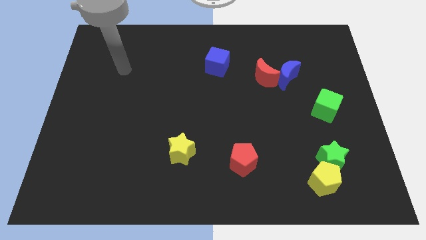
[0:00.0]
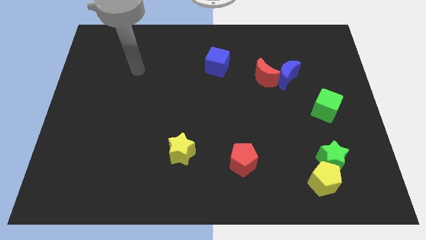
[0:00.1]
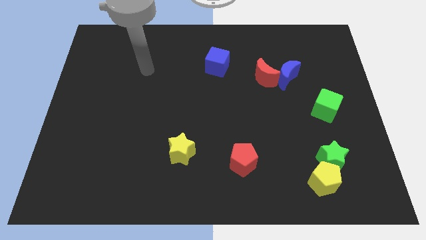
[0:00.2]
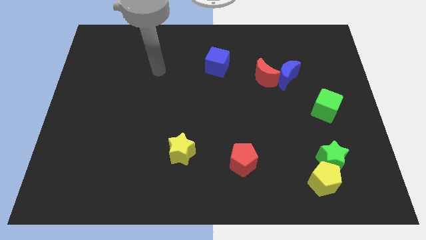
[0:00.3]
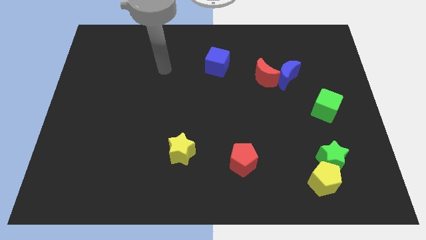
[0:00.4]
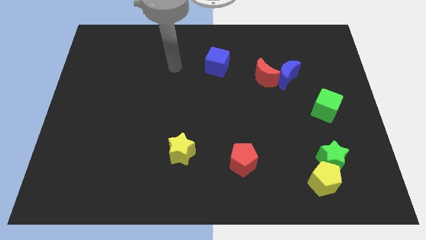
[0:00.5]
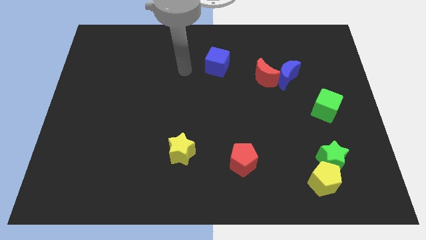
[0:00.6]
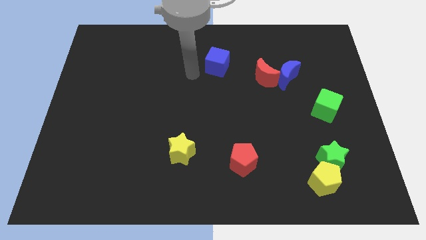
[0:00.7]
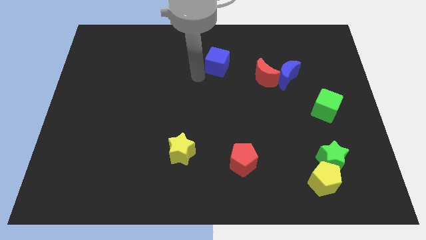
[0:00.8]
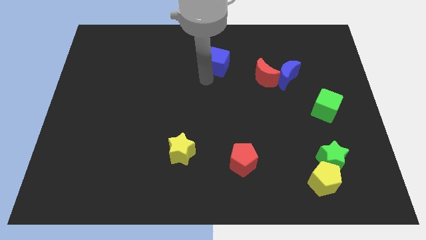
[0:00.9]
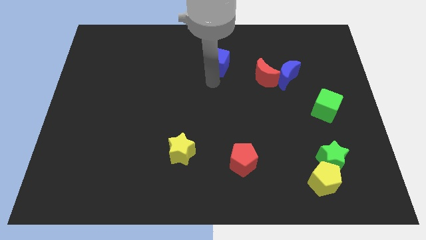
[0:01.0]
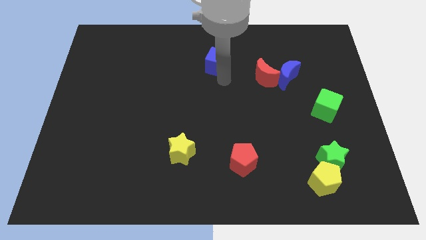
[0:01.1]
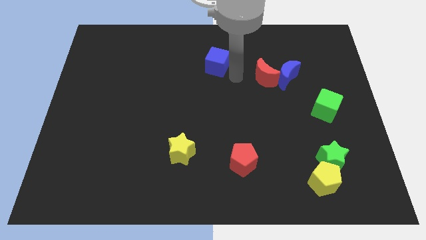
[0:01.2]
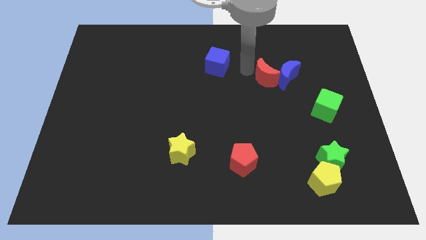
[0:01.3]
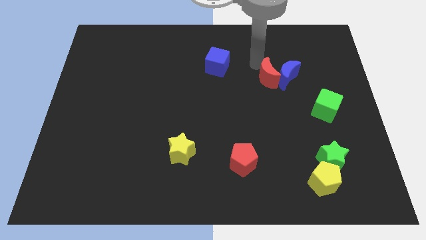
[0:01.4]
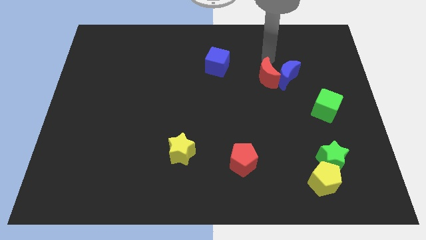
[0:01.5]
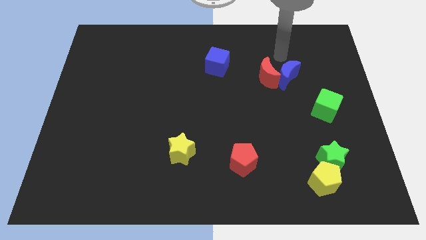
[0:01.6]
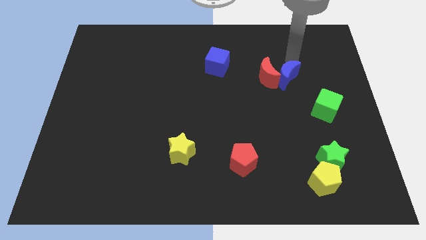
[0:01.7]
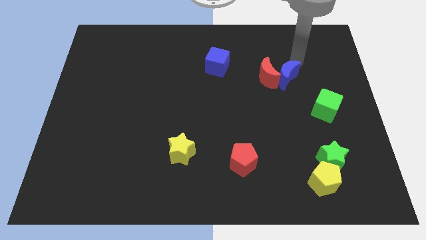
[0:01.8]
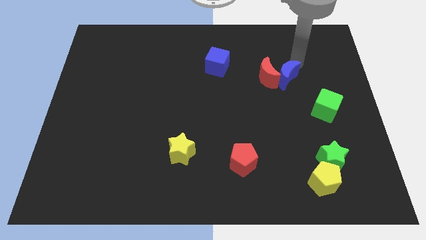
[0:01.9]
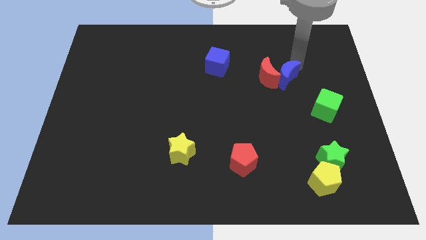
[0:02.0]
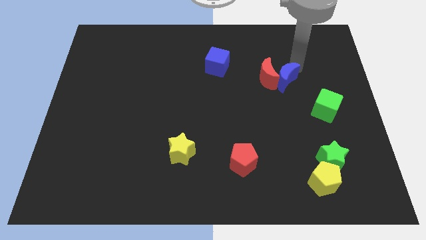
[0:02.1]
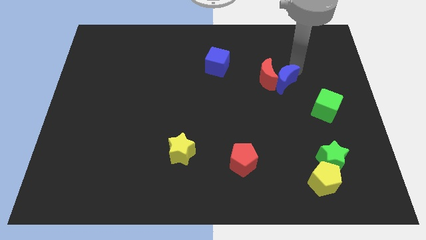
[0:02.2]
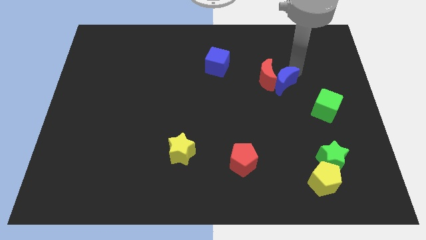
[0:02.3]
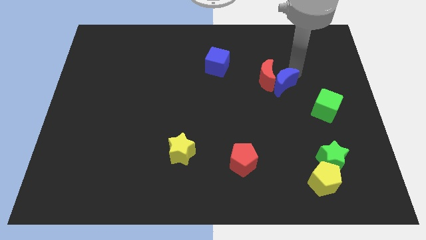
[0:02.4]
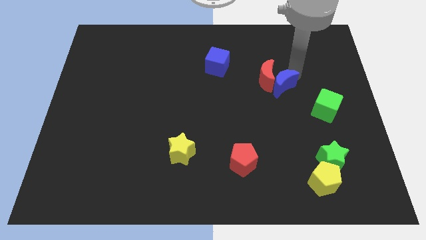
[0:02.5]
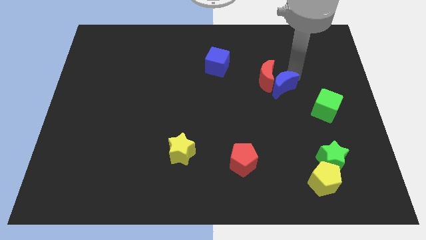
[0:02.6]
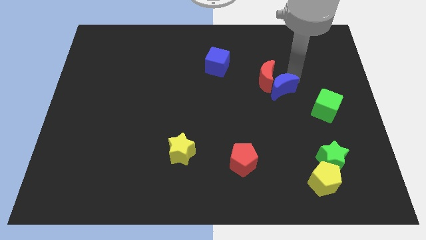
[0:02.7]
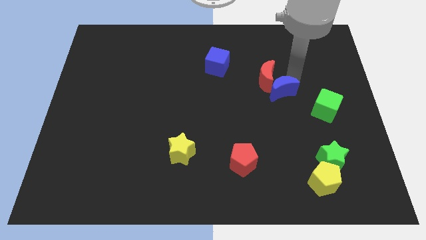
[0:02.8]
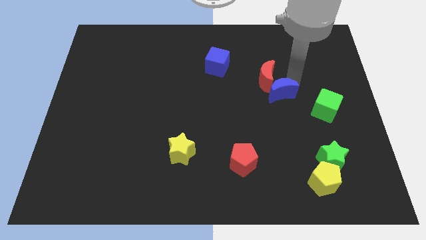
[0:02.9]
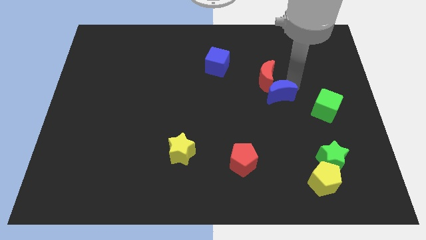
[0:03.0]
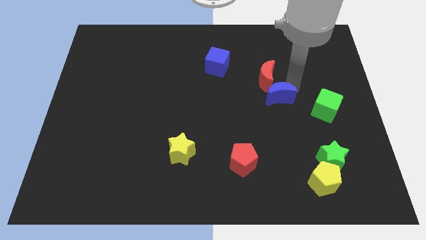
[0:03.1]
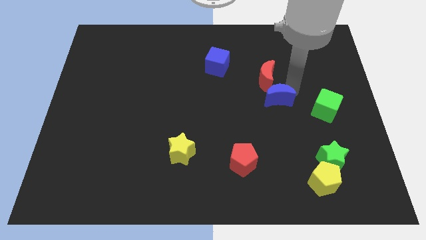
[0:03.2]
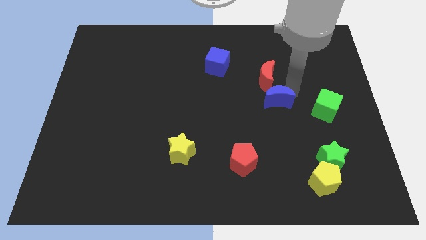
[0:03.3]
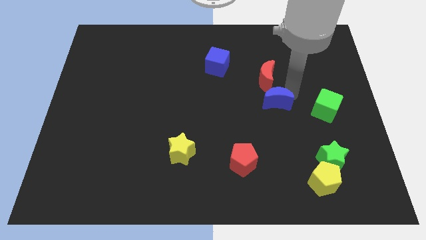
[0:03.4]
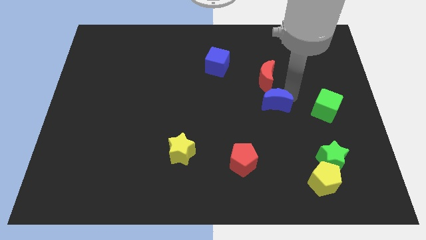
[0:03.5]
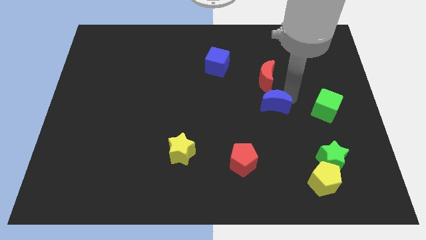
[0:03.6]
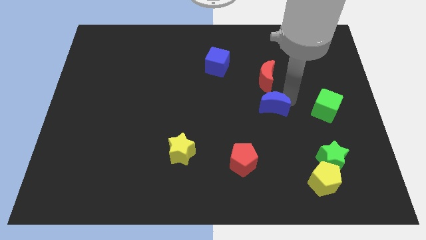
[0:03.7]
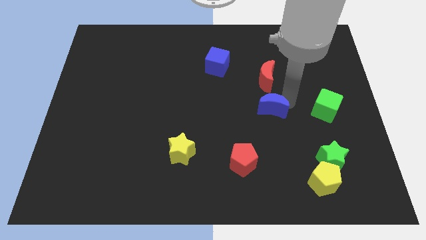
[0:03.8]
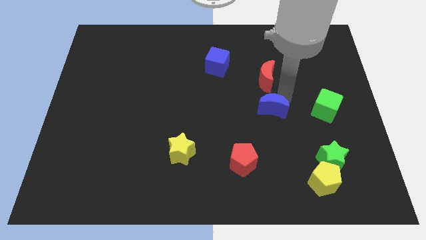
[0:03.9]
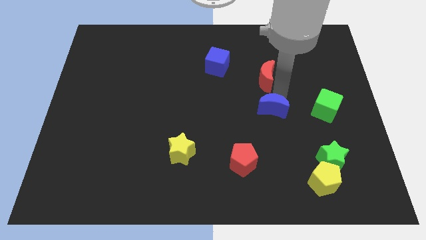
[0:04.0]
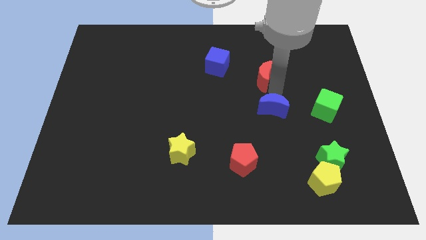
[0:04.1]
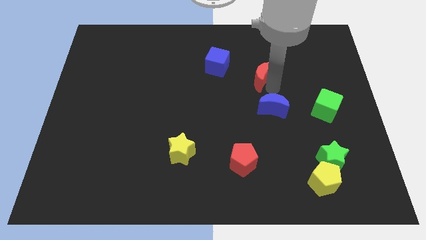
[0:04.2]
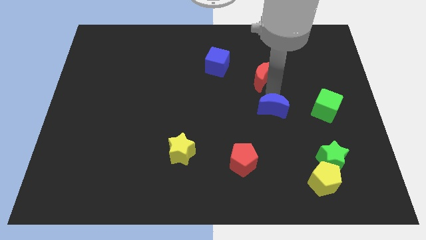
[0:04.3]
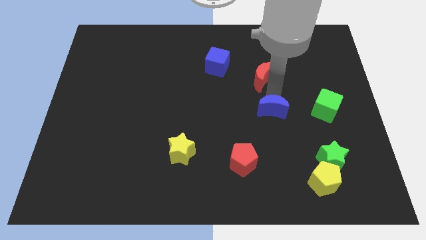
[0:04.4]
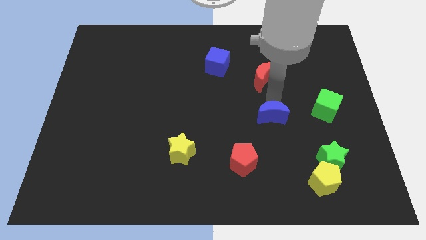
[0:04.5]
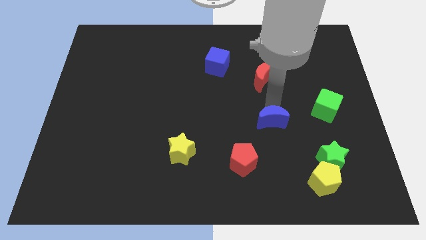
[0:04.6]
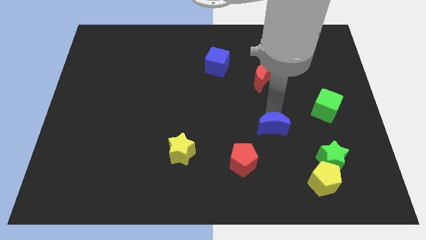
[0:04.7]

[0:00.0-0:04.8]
put the blue moon to the top right side of the red pentagon

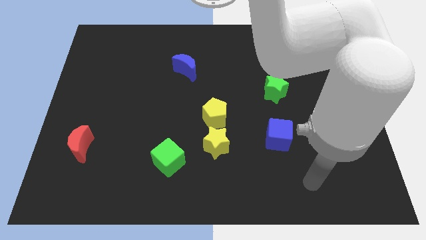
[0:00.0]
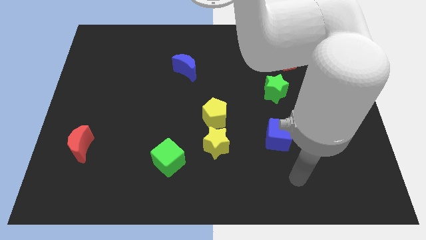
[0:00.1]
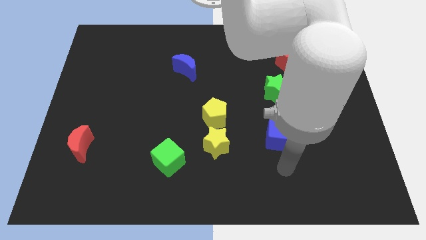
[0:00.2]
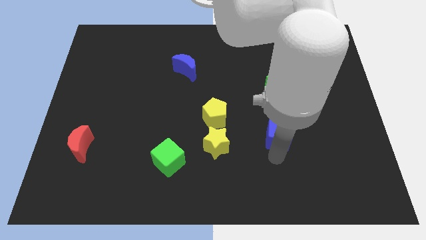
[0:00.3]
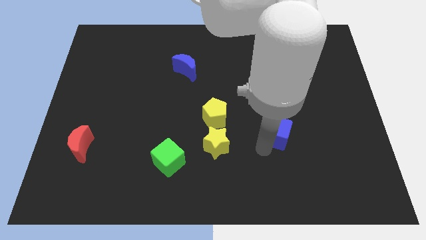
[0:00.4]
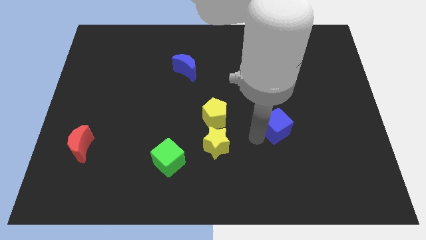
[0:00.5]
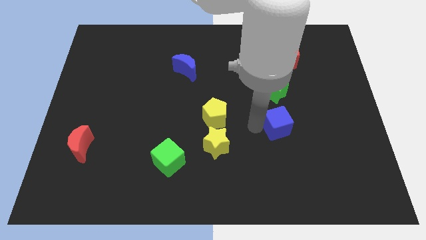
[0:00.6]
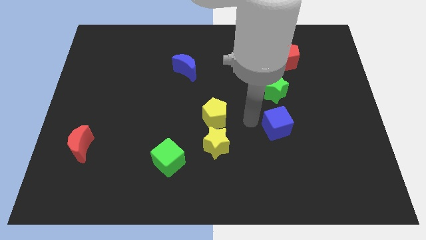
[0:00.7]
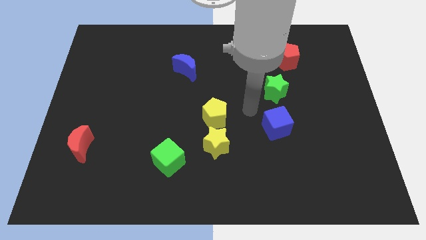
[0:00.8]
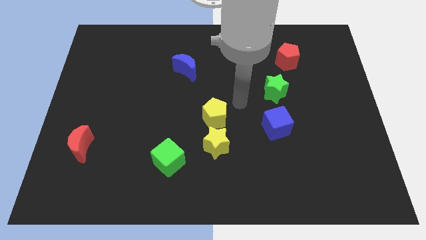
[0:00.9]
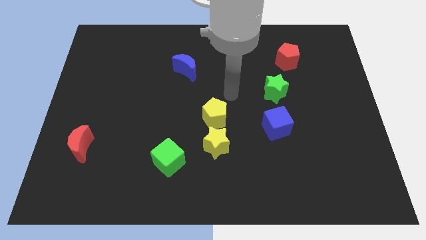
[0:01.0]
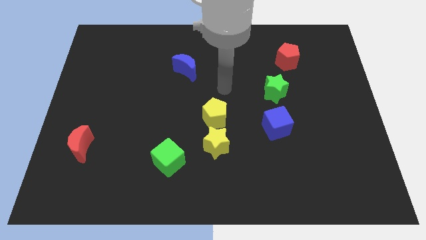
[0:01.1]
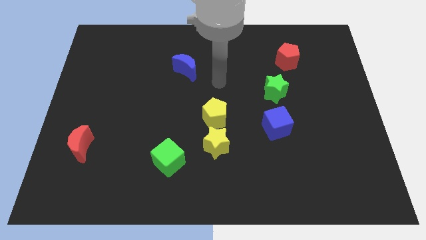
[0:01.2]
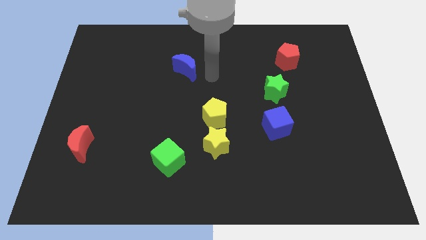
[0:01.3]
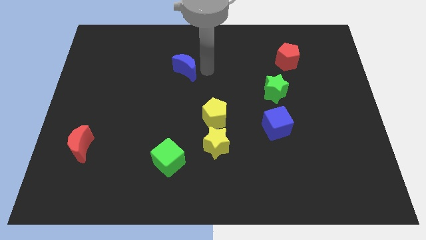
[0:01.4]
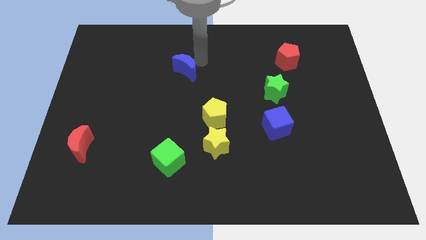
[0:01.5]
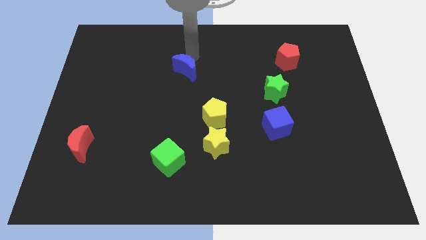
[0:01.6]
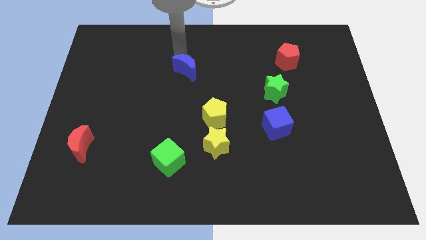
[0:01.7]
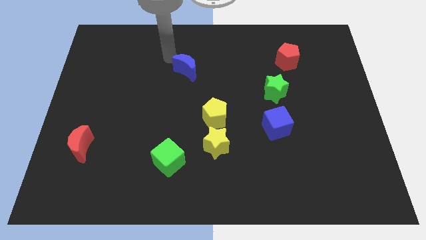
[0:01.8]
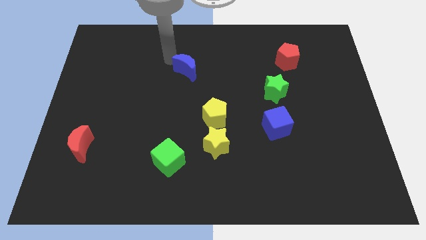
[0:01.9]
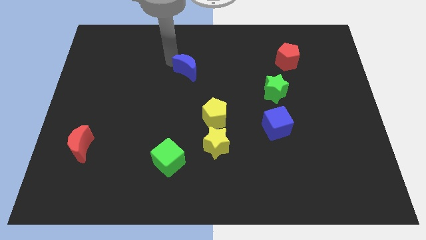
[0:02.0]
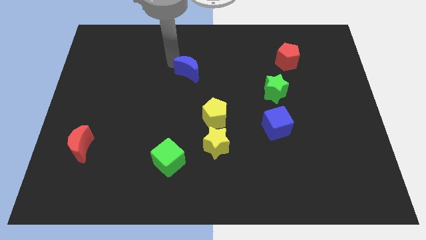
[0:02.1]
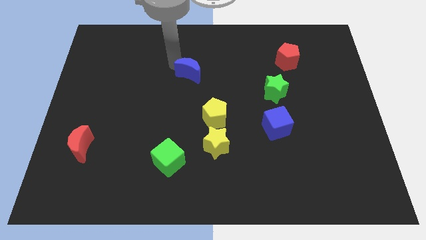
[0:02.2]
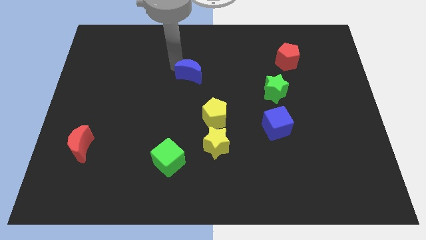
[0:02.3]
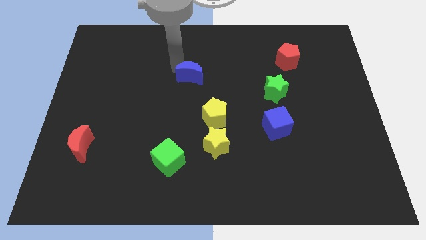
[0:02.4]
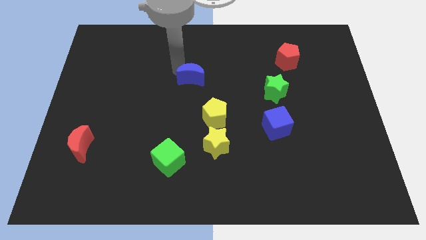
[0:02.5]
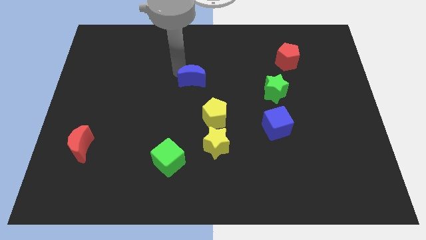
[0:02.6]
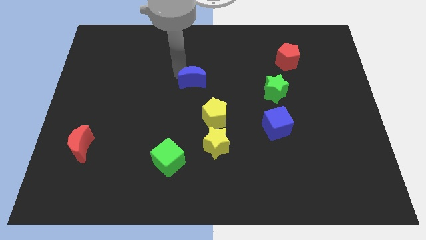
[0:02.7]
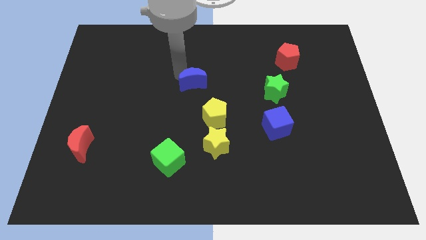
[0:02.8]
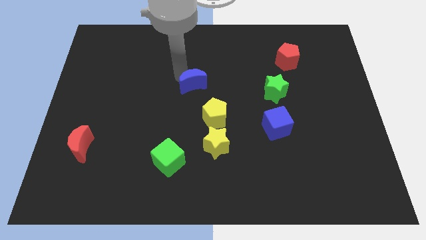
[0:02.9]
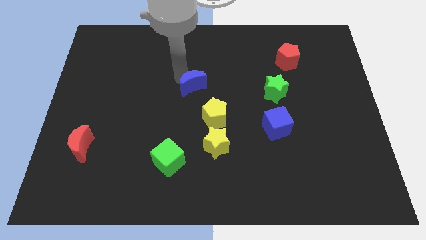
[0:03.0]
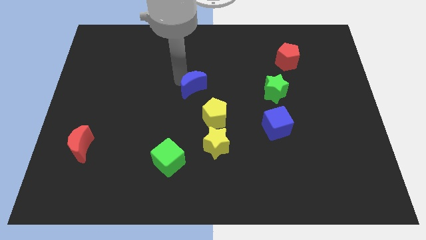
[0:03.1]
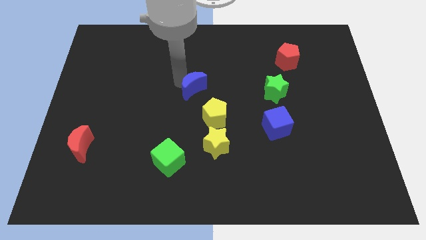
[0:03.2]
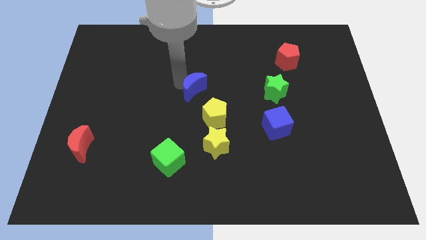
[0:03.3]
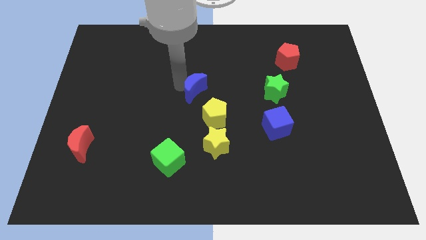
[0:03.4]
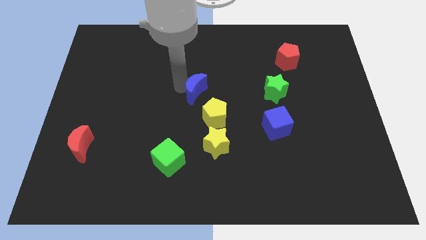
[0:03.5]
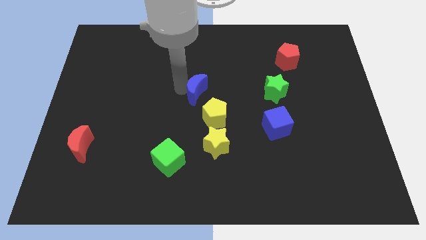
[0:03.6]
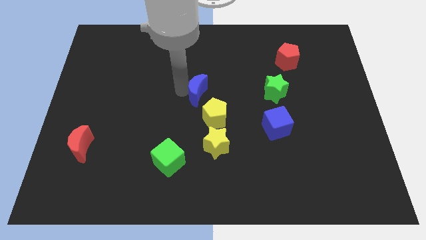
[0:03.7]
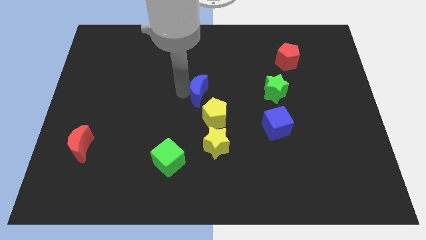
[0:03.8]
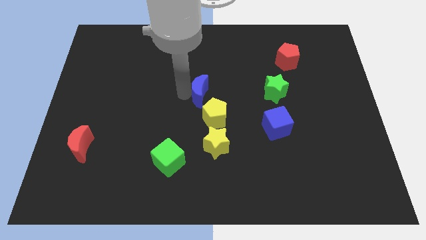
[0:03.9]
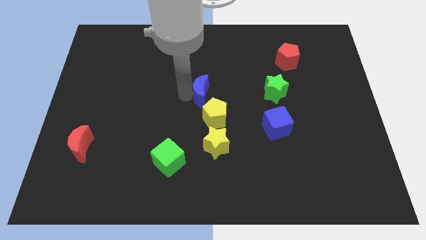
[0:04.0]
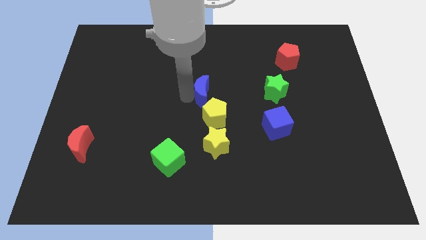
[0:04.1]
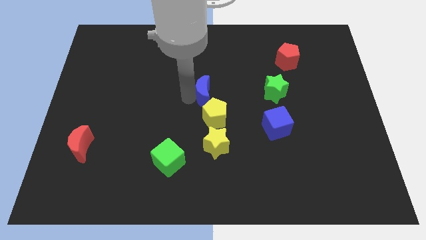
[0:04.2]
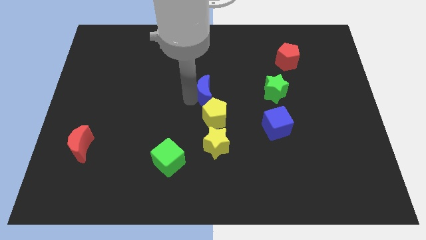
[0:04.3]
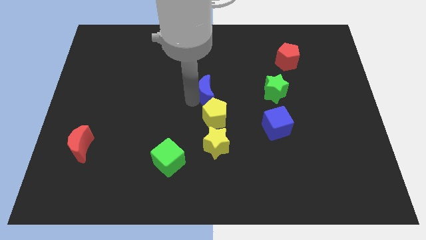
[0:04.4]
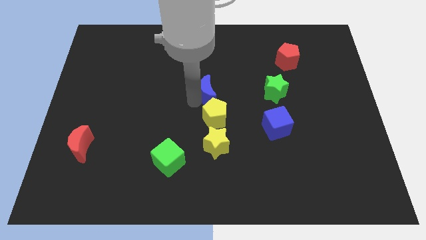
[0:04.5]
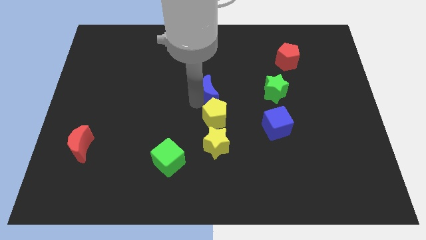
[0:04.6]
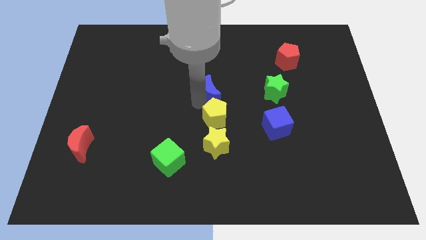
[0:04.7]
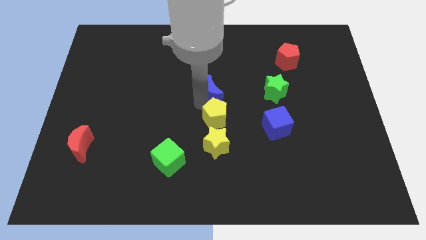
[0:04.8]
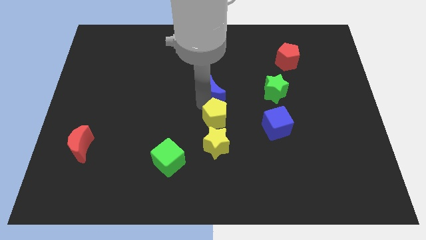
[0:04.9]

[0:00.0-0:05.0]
move the blue moon to the top right of the yellow pentagon
